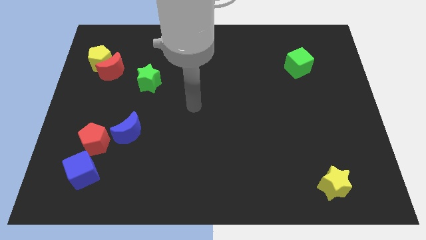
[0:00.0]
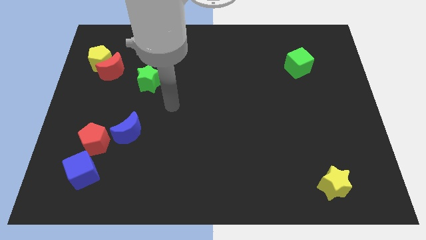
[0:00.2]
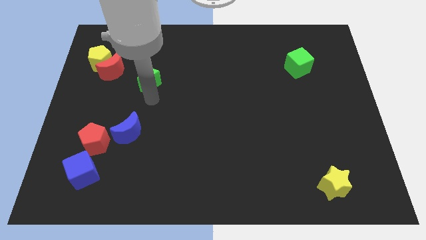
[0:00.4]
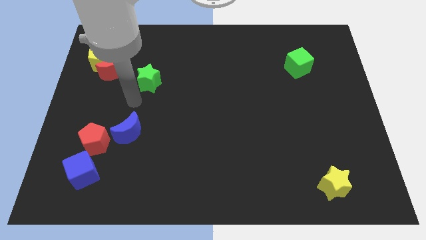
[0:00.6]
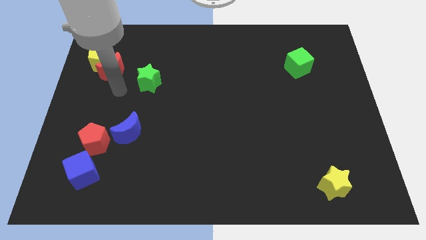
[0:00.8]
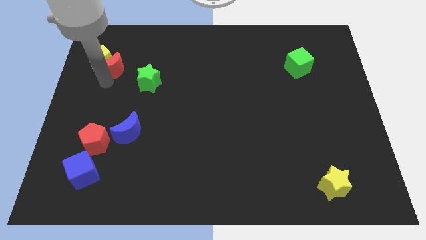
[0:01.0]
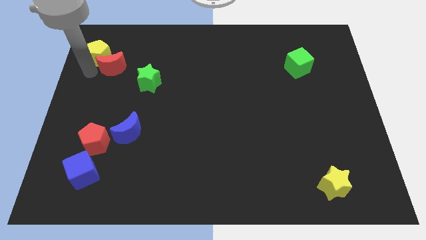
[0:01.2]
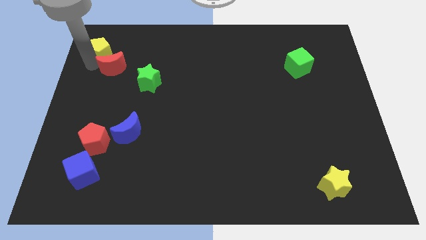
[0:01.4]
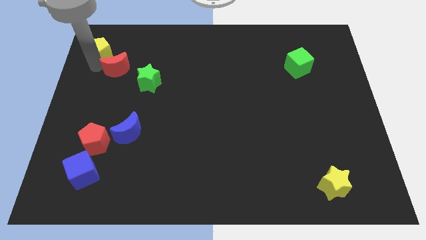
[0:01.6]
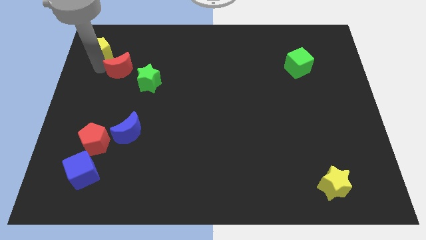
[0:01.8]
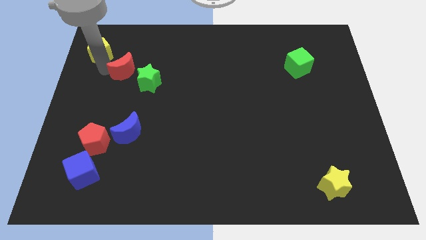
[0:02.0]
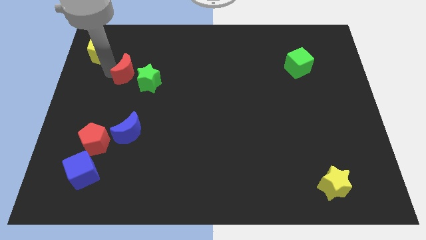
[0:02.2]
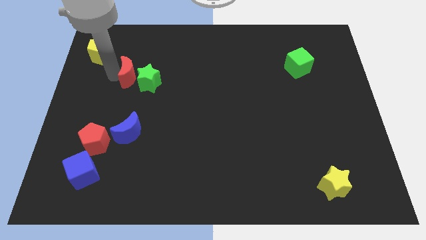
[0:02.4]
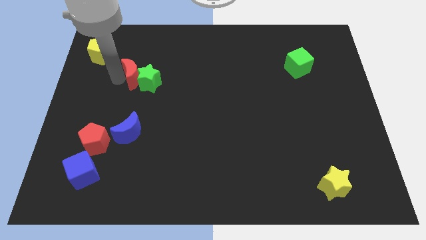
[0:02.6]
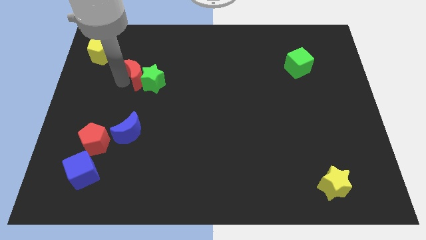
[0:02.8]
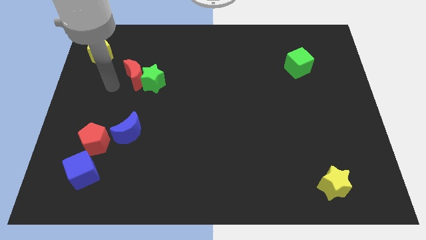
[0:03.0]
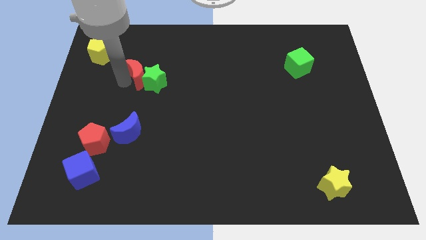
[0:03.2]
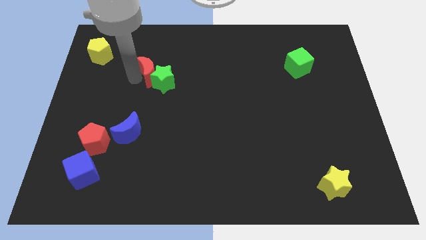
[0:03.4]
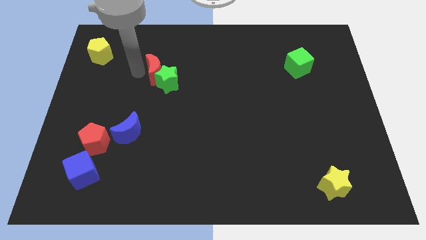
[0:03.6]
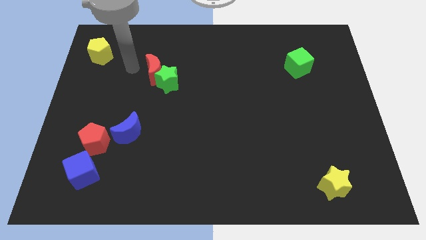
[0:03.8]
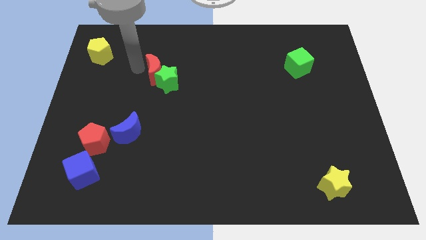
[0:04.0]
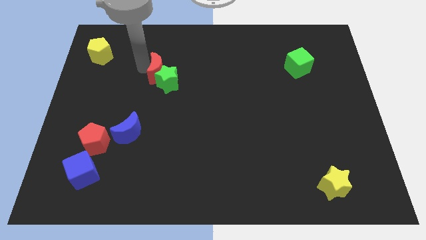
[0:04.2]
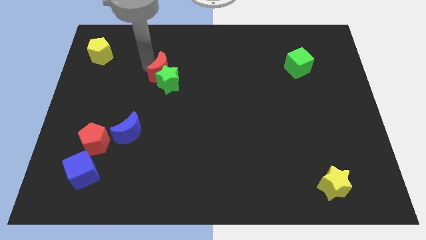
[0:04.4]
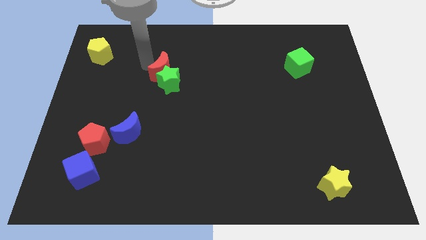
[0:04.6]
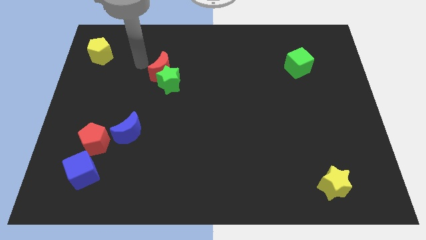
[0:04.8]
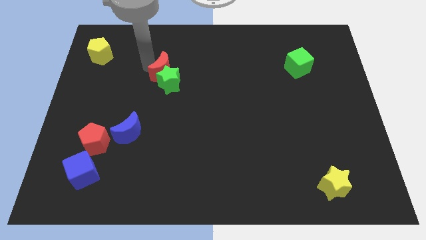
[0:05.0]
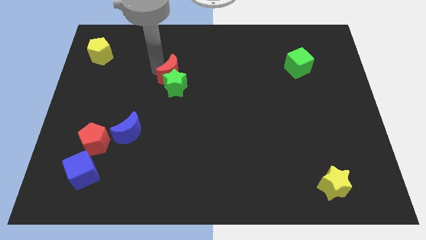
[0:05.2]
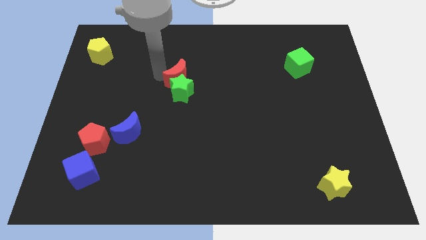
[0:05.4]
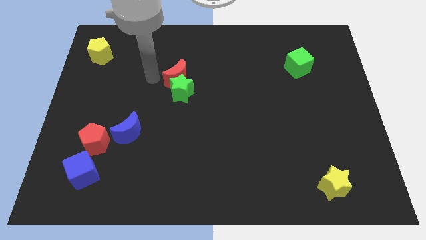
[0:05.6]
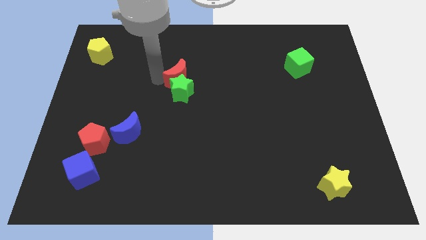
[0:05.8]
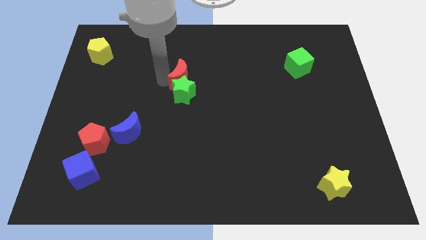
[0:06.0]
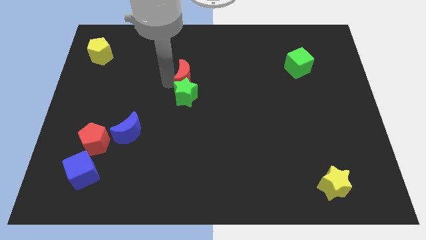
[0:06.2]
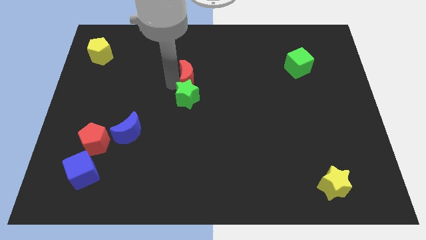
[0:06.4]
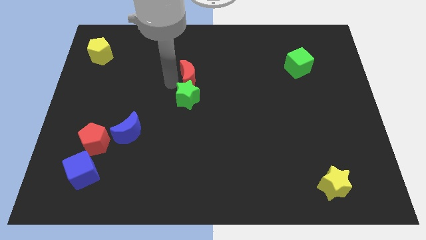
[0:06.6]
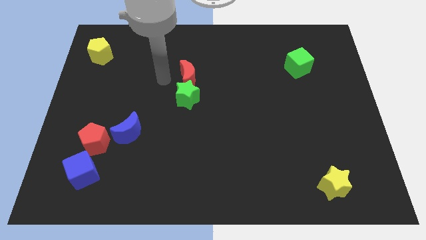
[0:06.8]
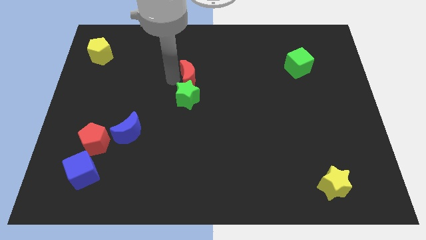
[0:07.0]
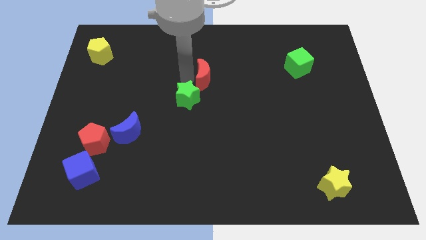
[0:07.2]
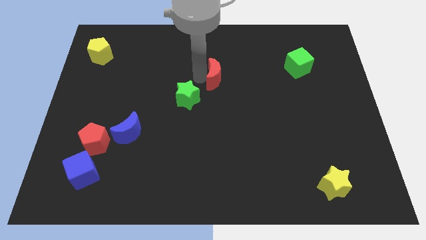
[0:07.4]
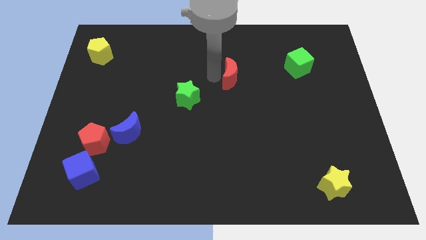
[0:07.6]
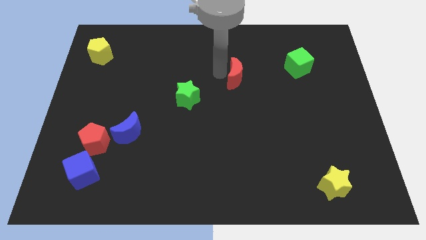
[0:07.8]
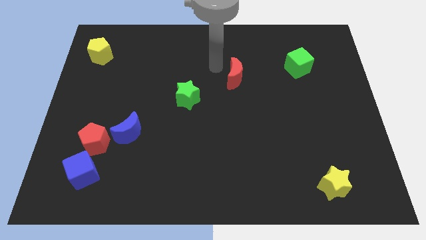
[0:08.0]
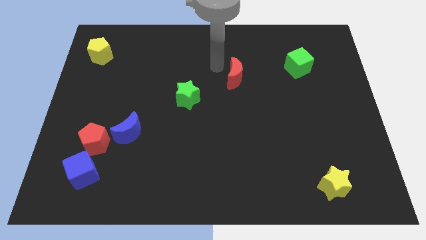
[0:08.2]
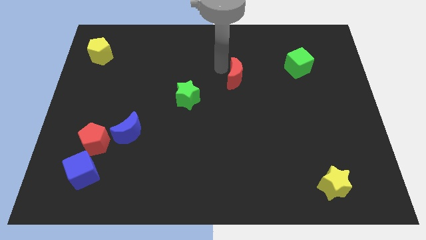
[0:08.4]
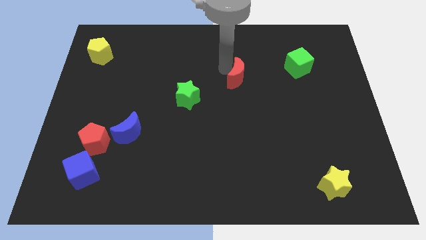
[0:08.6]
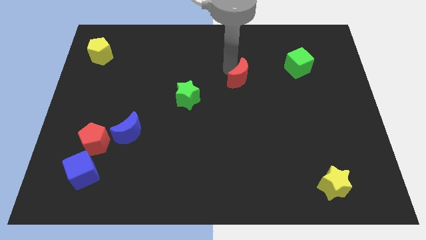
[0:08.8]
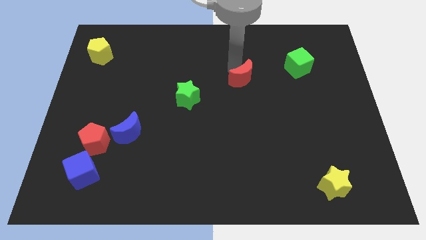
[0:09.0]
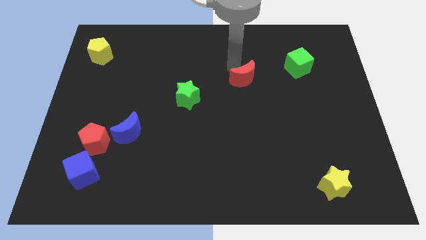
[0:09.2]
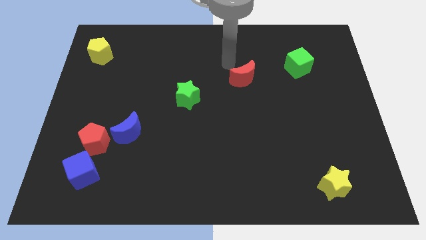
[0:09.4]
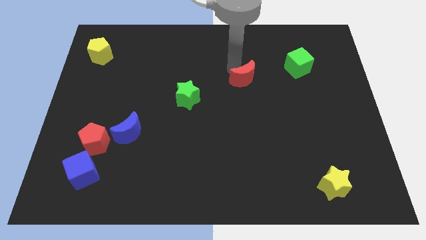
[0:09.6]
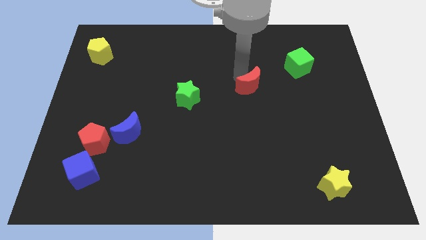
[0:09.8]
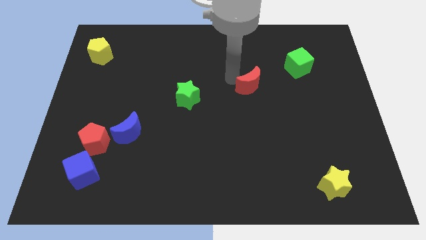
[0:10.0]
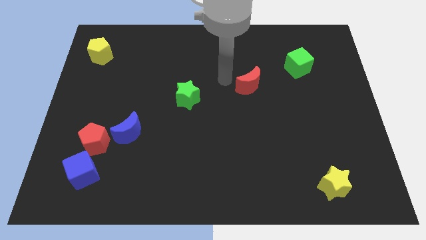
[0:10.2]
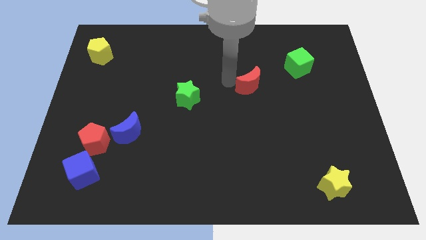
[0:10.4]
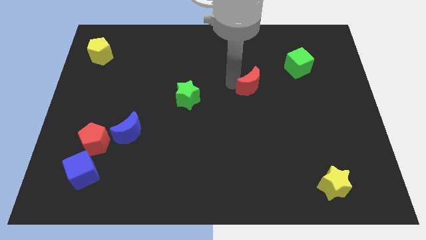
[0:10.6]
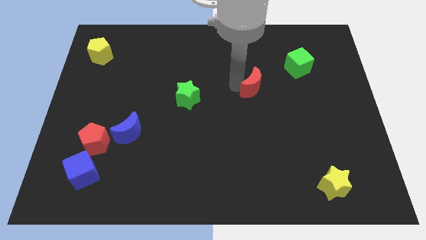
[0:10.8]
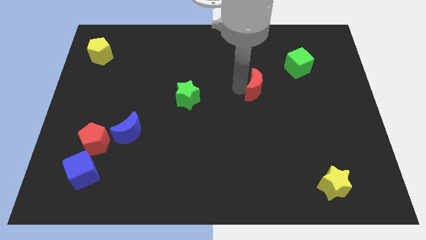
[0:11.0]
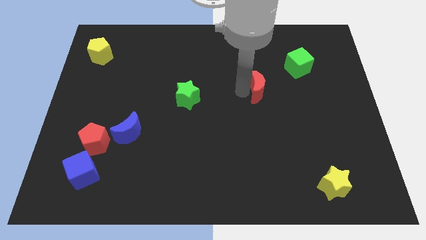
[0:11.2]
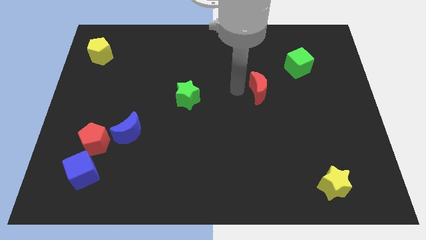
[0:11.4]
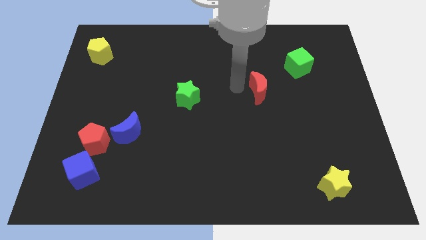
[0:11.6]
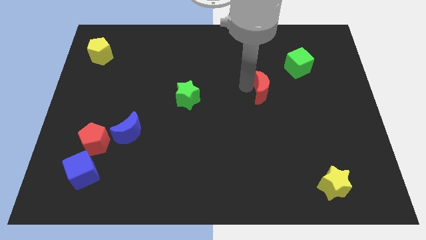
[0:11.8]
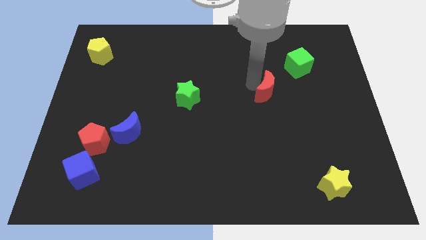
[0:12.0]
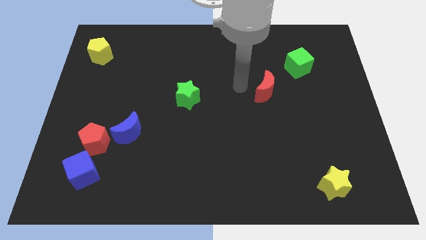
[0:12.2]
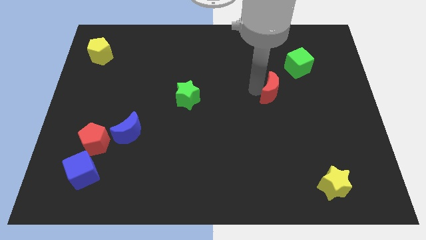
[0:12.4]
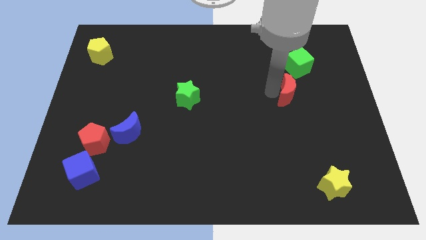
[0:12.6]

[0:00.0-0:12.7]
slide the red moon below the green cube
